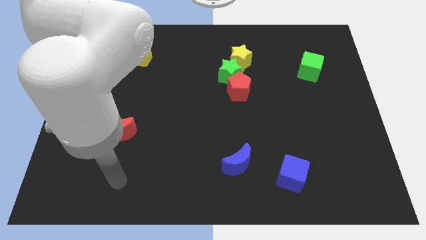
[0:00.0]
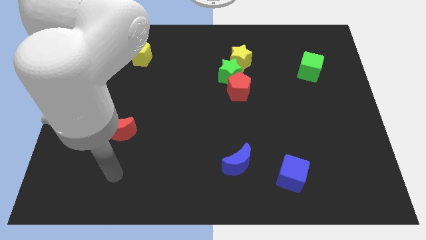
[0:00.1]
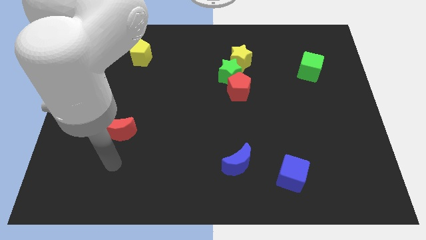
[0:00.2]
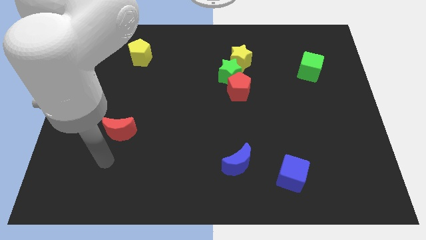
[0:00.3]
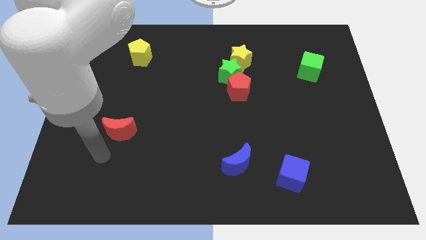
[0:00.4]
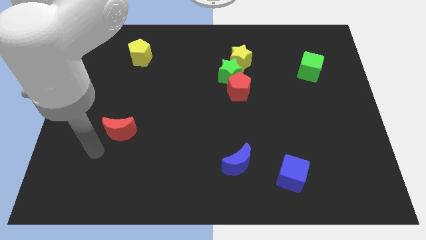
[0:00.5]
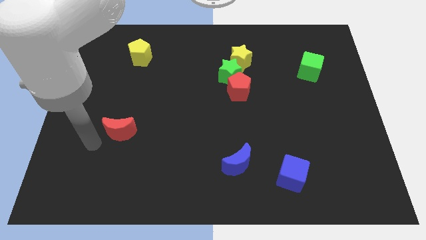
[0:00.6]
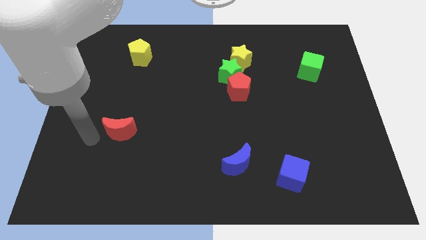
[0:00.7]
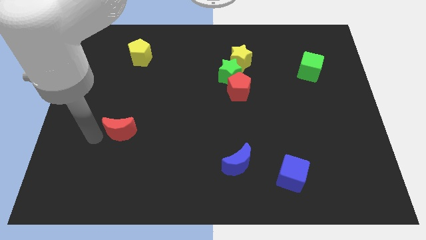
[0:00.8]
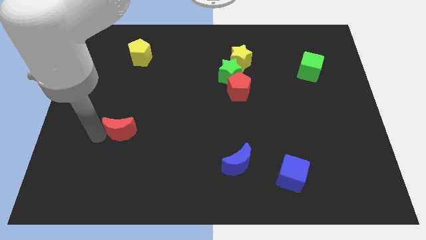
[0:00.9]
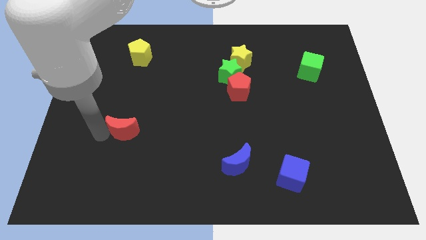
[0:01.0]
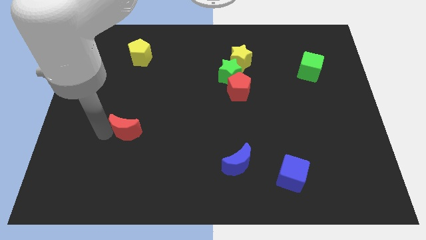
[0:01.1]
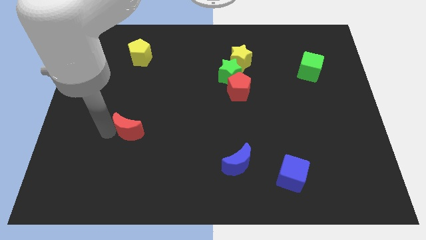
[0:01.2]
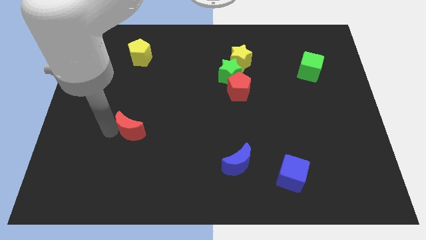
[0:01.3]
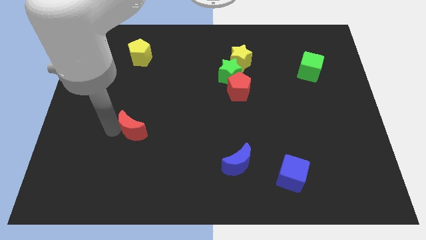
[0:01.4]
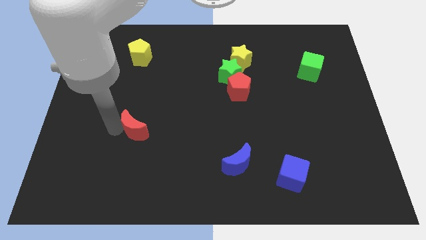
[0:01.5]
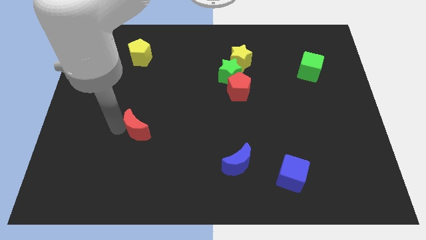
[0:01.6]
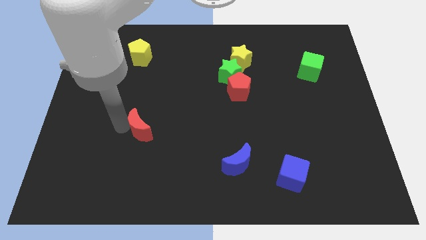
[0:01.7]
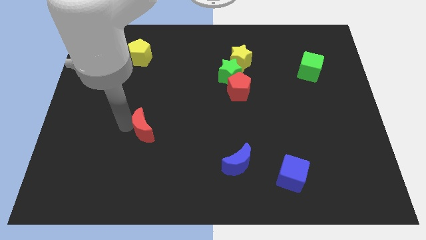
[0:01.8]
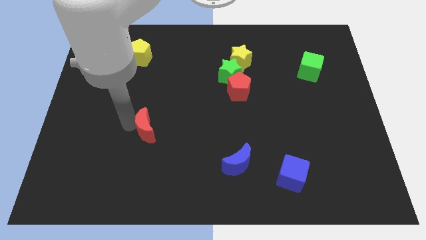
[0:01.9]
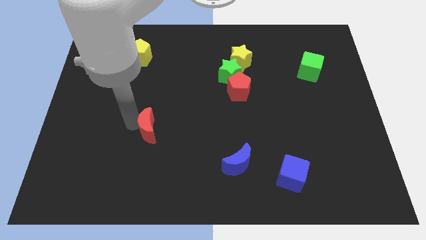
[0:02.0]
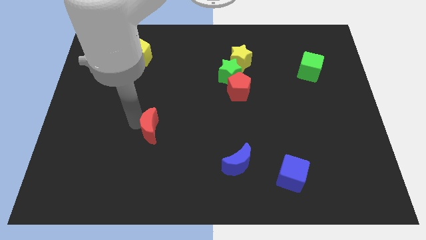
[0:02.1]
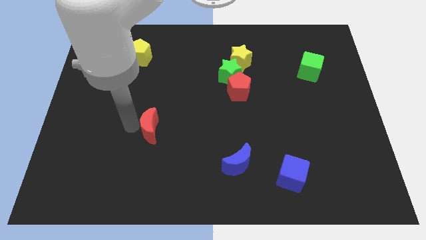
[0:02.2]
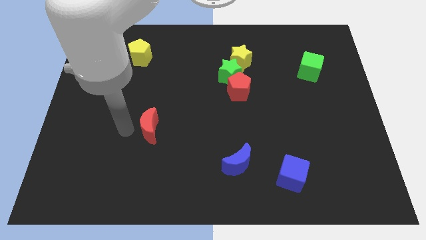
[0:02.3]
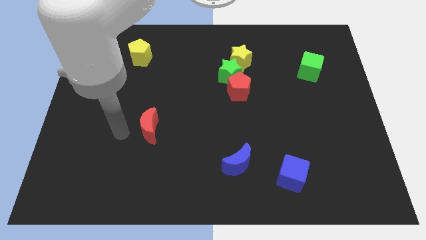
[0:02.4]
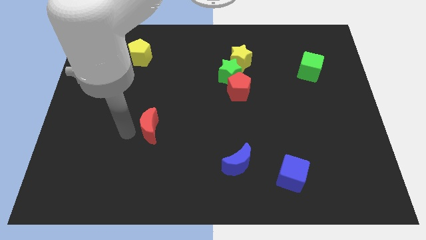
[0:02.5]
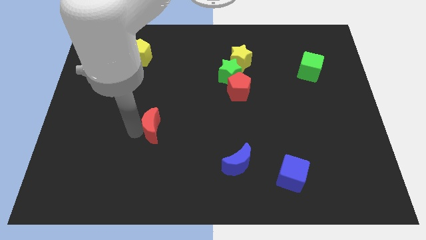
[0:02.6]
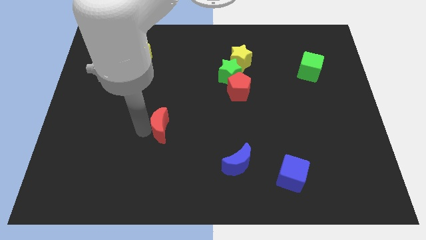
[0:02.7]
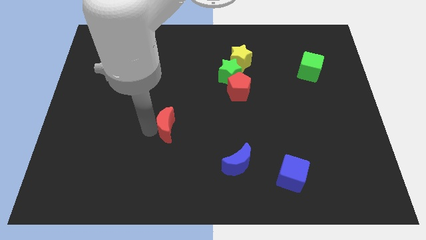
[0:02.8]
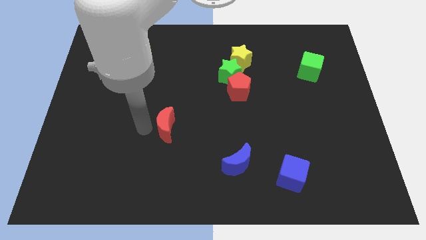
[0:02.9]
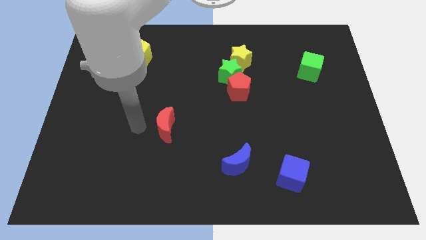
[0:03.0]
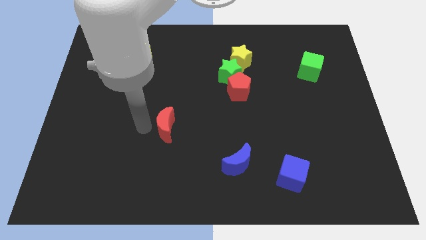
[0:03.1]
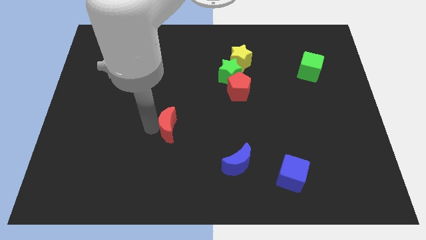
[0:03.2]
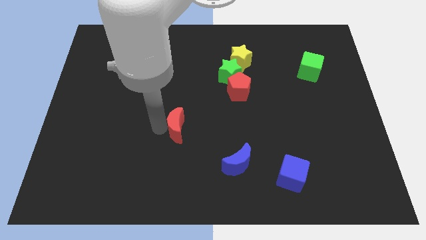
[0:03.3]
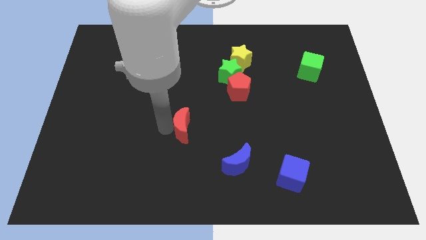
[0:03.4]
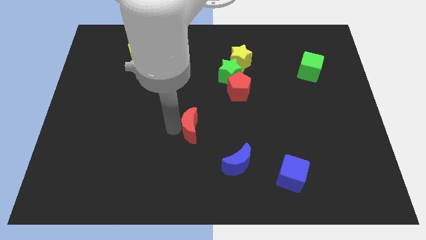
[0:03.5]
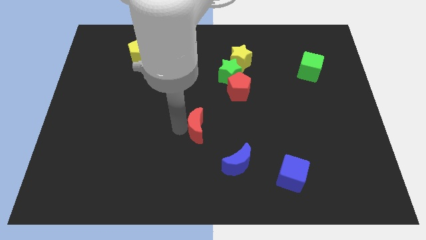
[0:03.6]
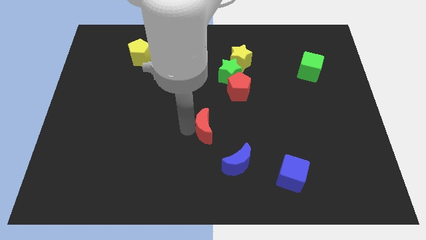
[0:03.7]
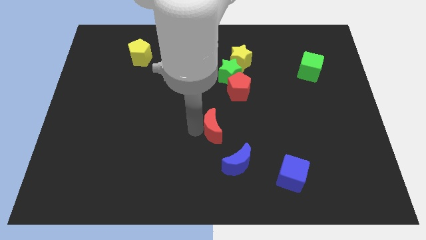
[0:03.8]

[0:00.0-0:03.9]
push the red moon right

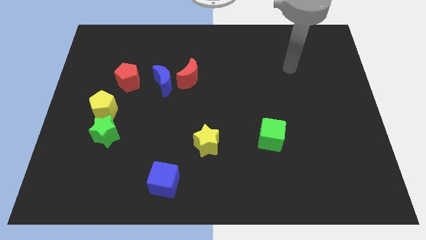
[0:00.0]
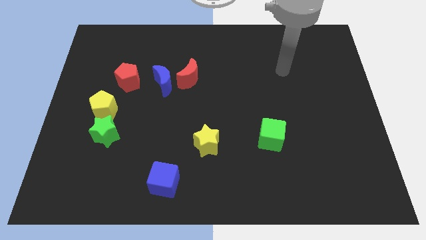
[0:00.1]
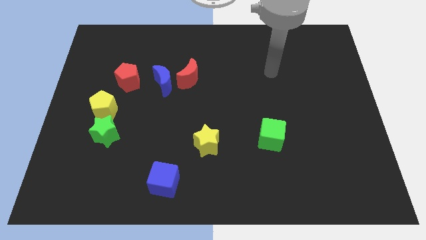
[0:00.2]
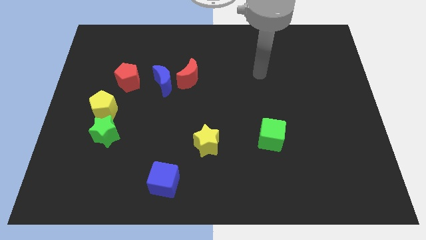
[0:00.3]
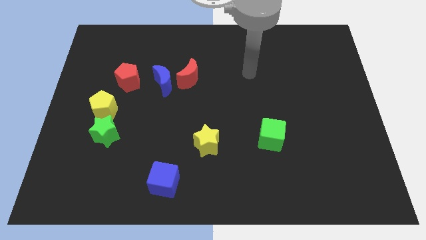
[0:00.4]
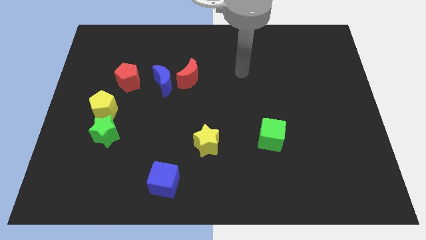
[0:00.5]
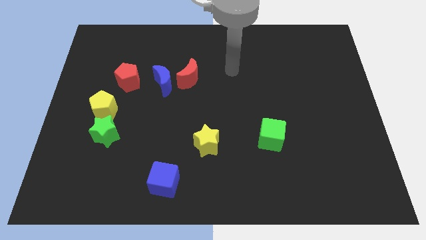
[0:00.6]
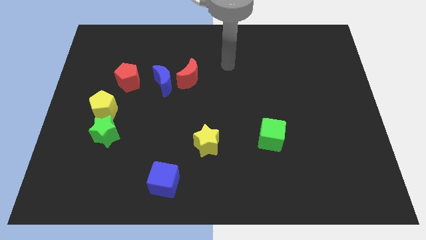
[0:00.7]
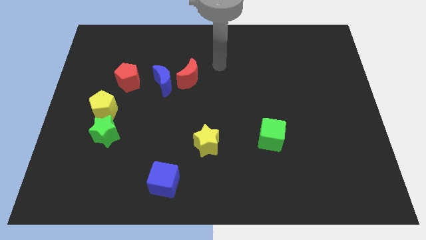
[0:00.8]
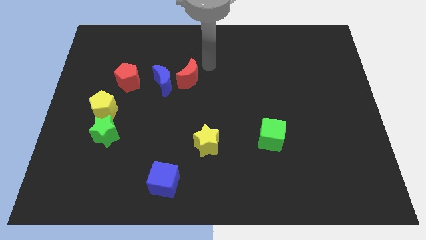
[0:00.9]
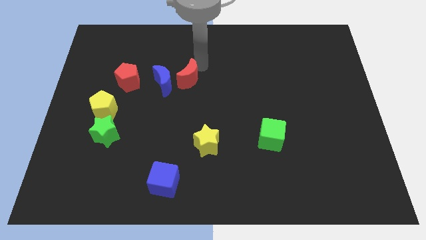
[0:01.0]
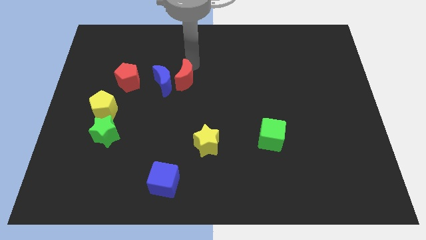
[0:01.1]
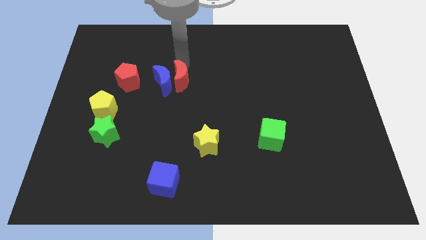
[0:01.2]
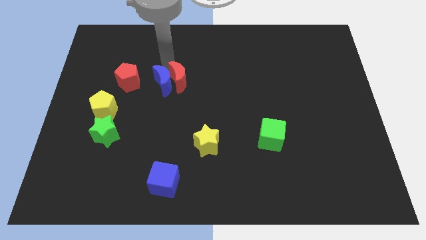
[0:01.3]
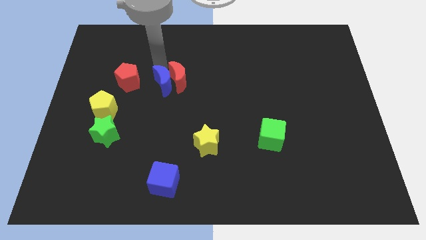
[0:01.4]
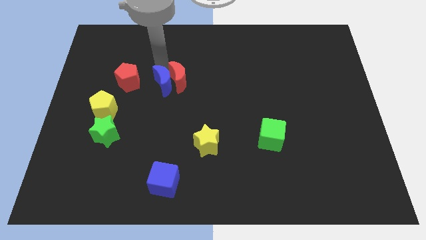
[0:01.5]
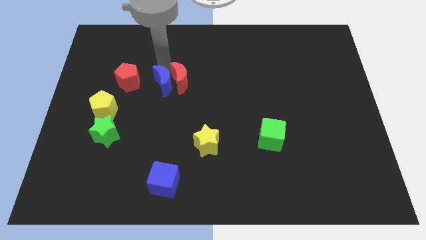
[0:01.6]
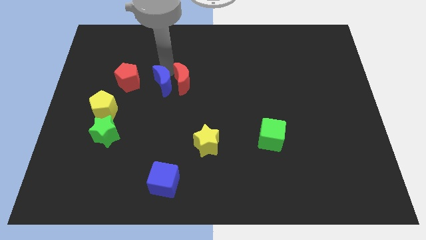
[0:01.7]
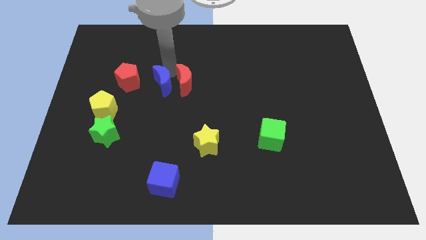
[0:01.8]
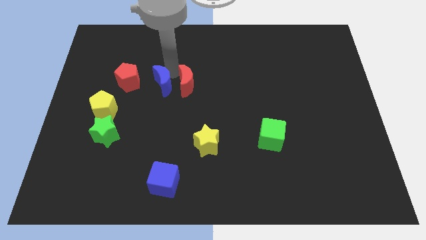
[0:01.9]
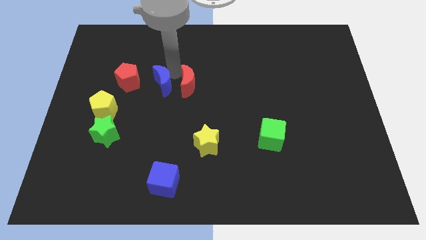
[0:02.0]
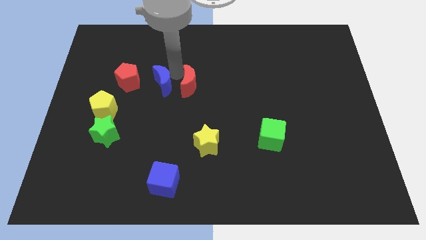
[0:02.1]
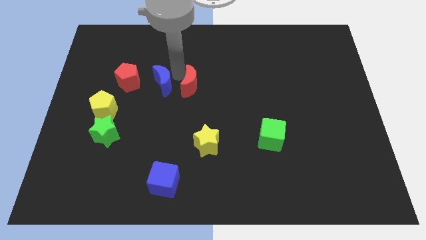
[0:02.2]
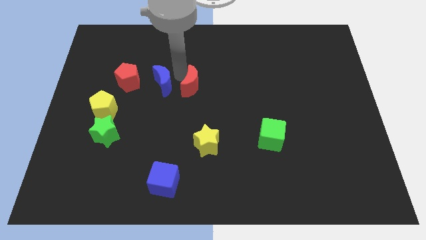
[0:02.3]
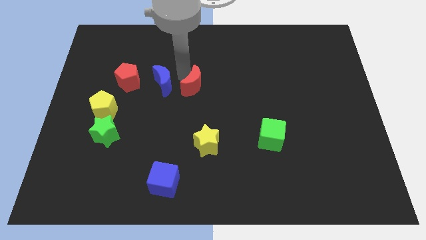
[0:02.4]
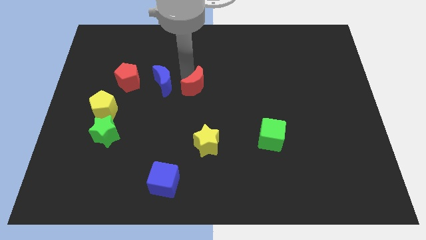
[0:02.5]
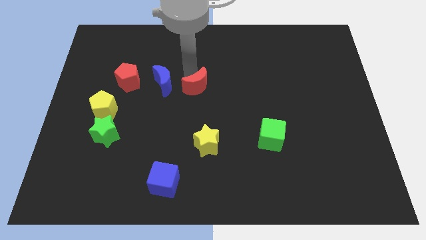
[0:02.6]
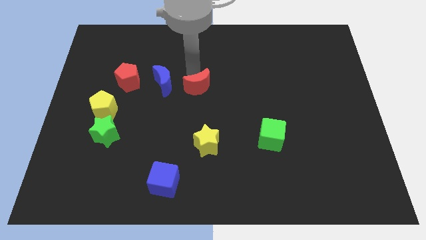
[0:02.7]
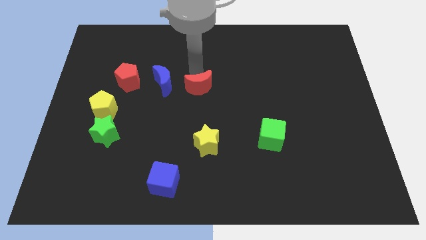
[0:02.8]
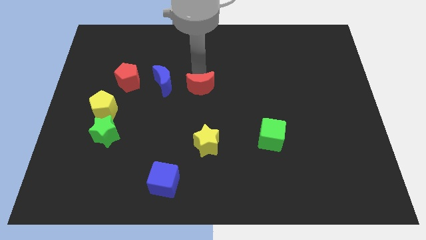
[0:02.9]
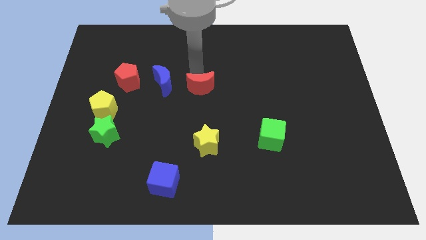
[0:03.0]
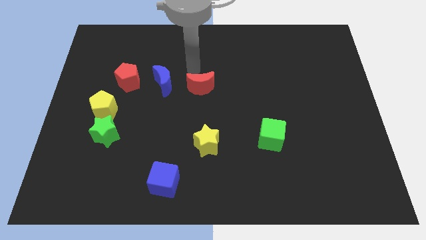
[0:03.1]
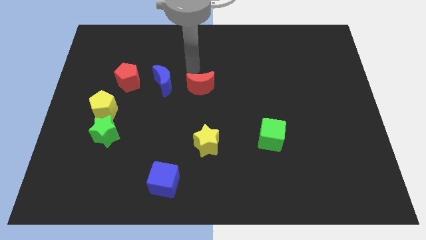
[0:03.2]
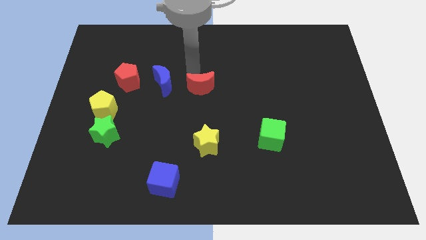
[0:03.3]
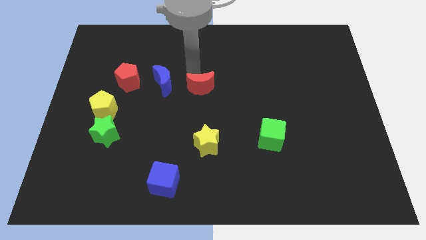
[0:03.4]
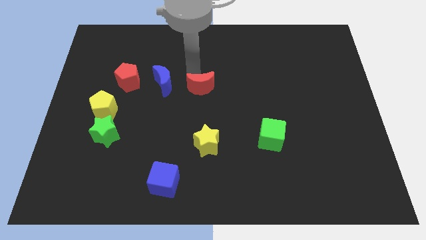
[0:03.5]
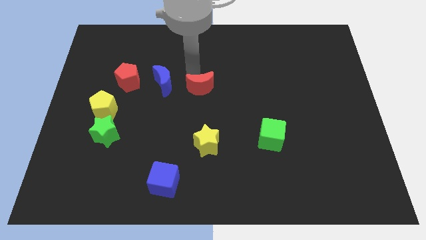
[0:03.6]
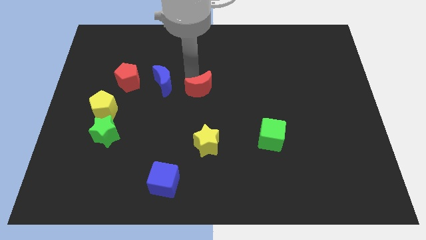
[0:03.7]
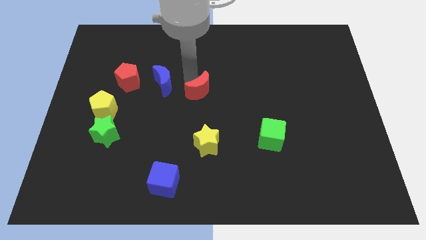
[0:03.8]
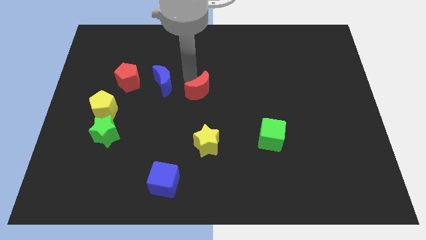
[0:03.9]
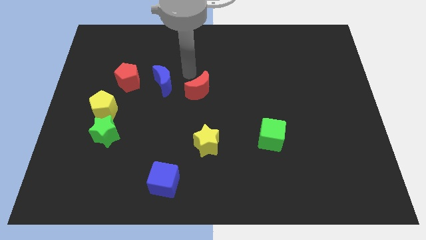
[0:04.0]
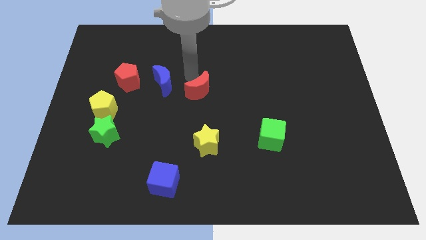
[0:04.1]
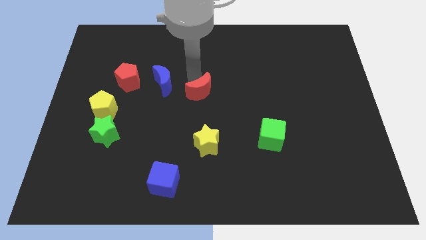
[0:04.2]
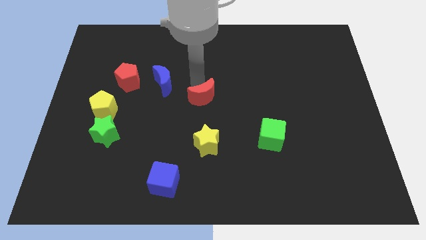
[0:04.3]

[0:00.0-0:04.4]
move the red moon a little bit down and then right
